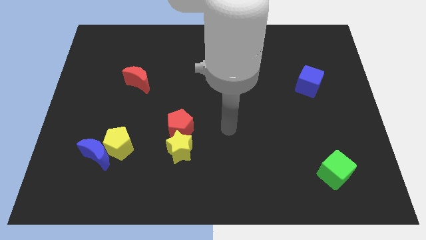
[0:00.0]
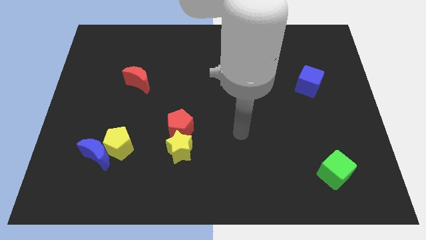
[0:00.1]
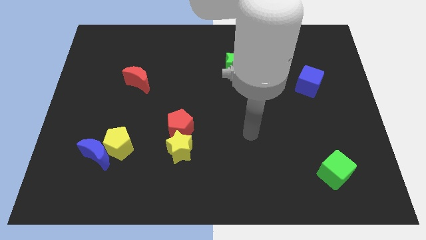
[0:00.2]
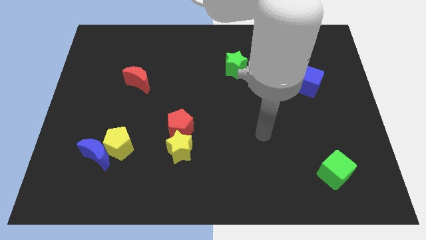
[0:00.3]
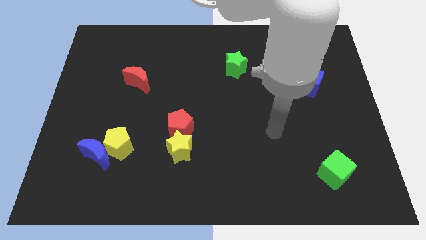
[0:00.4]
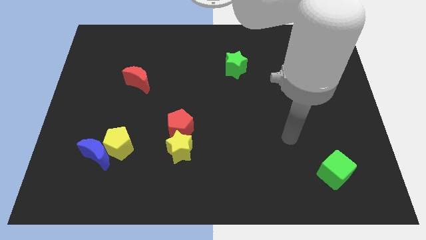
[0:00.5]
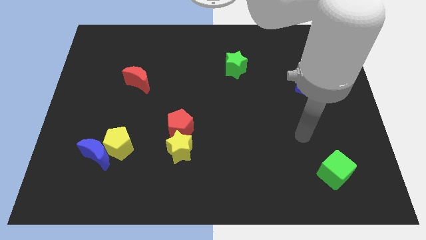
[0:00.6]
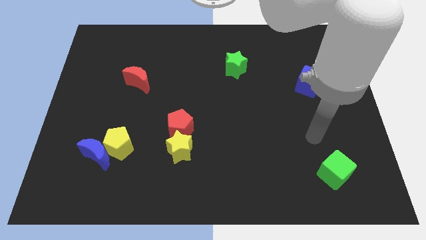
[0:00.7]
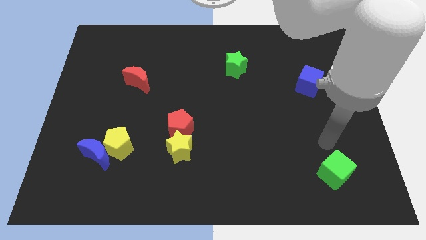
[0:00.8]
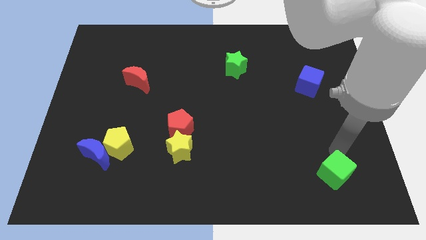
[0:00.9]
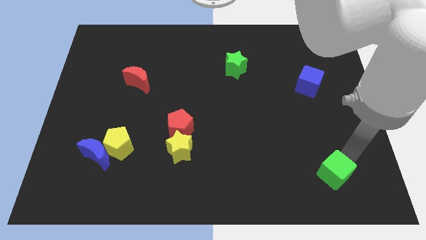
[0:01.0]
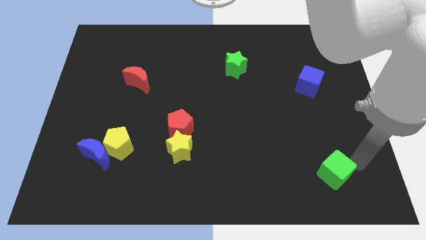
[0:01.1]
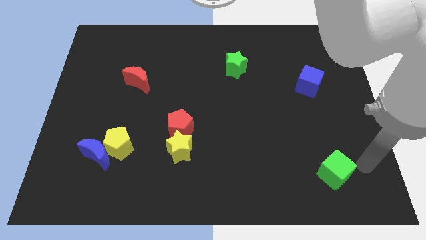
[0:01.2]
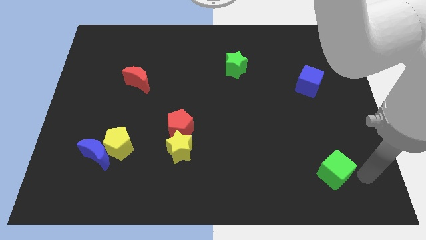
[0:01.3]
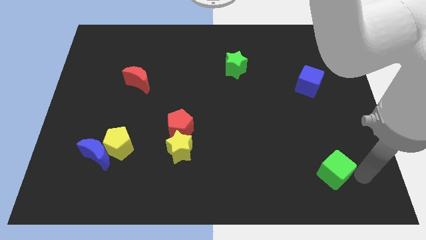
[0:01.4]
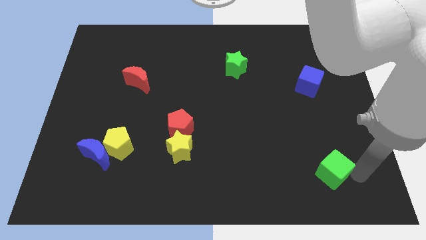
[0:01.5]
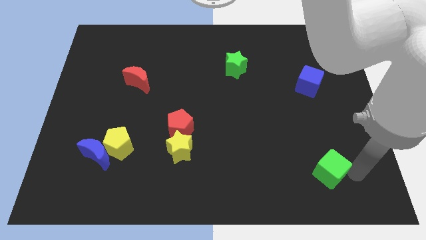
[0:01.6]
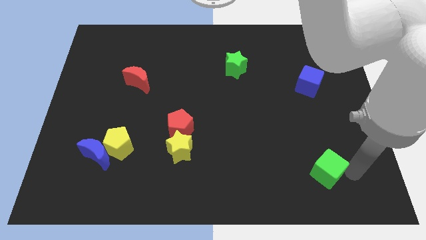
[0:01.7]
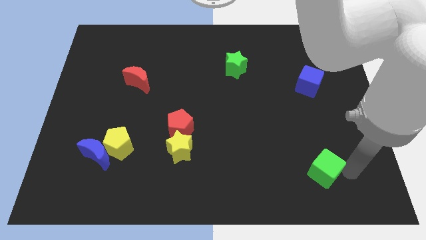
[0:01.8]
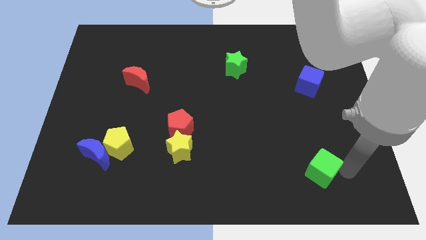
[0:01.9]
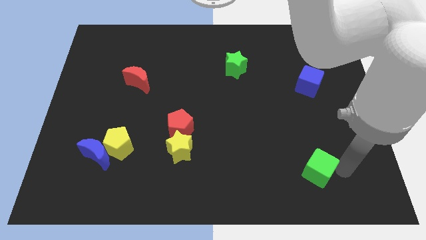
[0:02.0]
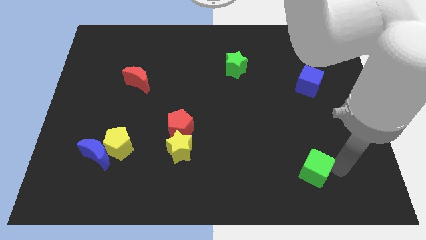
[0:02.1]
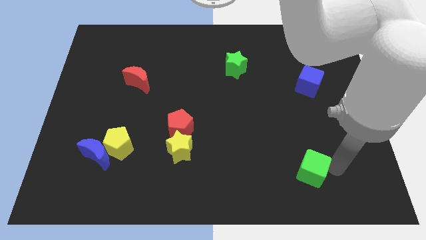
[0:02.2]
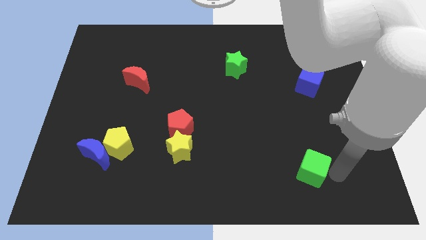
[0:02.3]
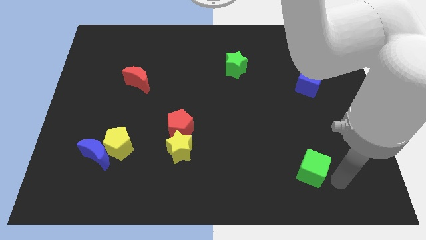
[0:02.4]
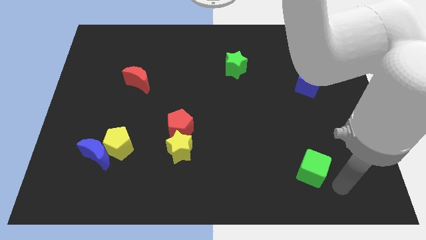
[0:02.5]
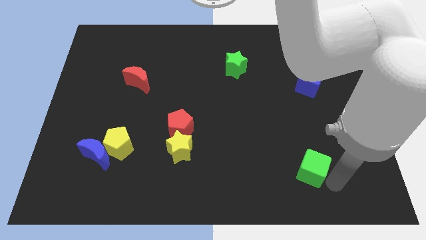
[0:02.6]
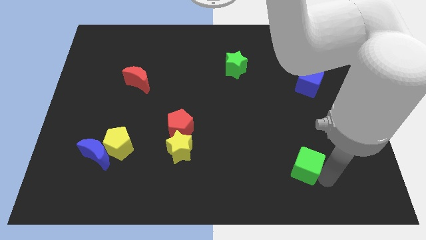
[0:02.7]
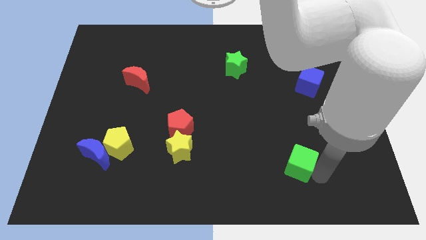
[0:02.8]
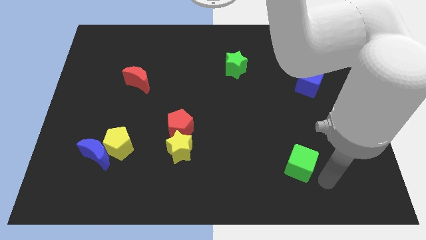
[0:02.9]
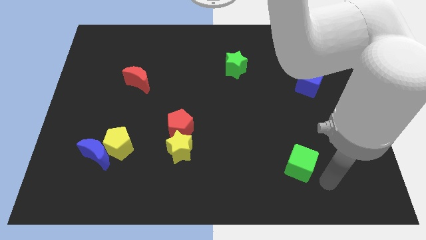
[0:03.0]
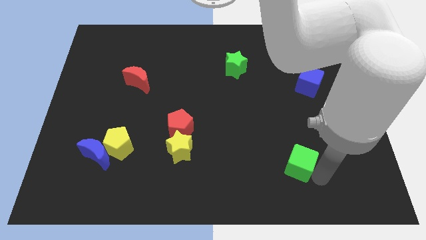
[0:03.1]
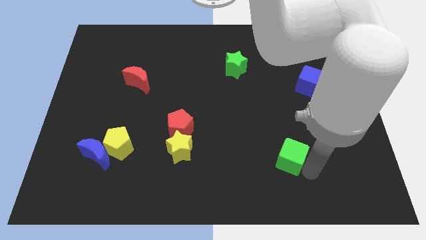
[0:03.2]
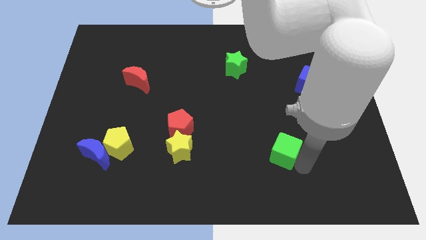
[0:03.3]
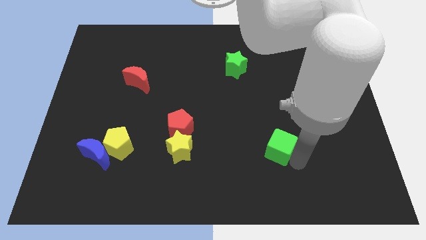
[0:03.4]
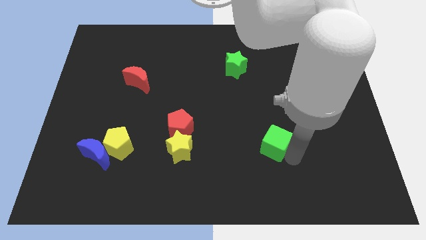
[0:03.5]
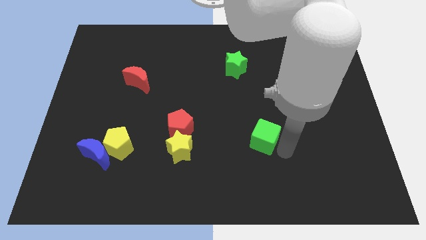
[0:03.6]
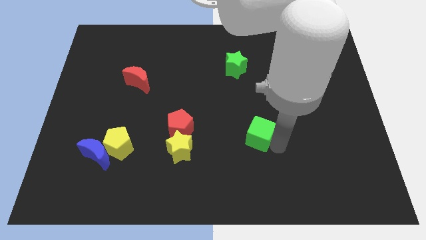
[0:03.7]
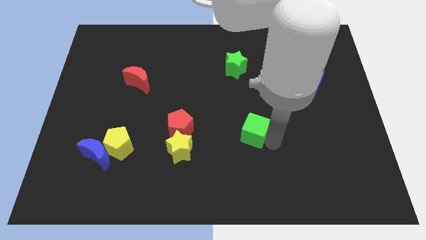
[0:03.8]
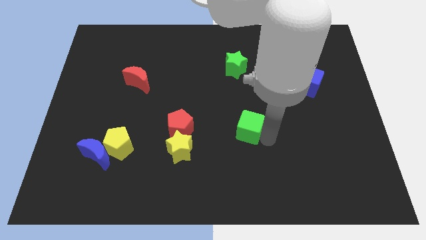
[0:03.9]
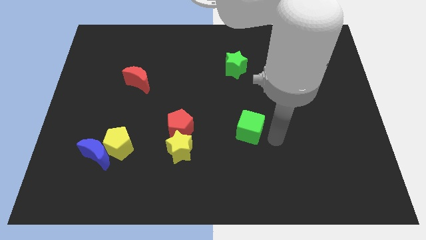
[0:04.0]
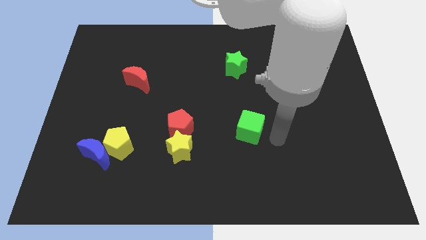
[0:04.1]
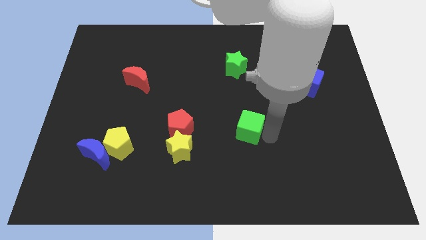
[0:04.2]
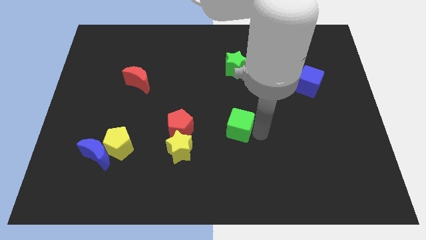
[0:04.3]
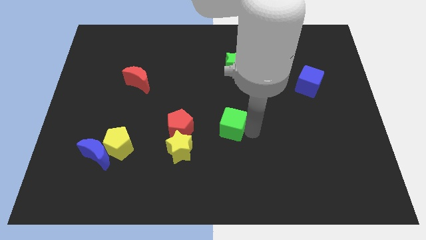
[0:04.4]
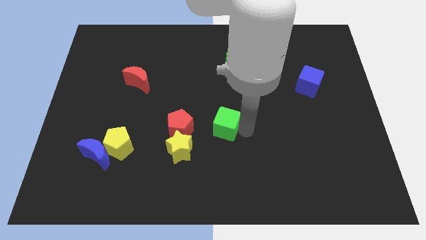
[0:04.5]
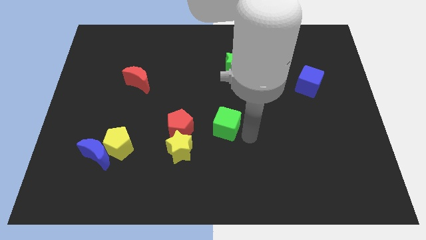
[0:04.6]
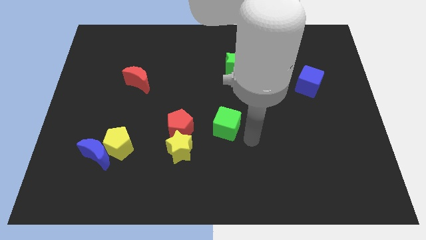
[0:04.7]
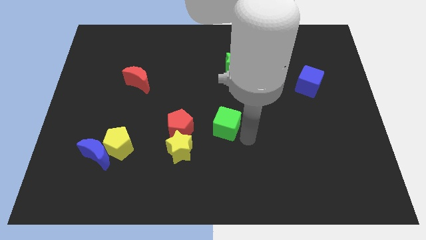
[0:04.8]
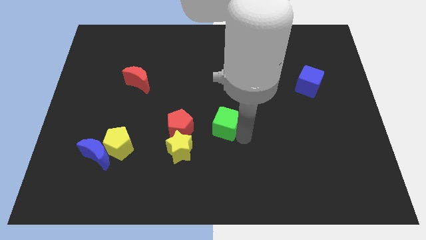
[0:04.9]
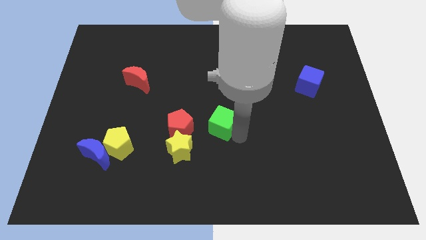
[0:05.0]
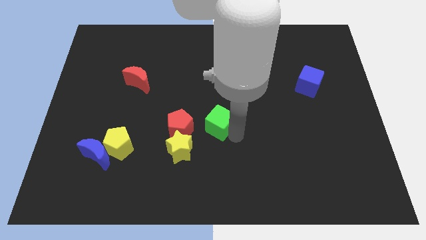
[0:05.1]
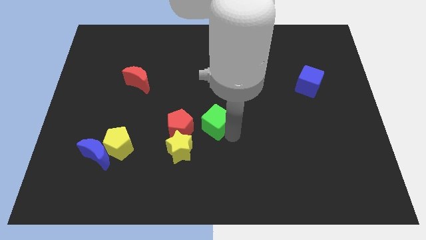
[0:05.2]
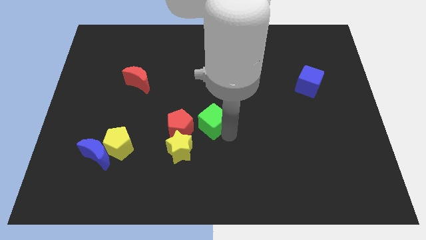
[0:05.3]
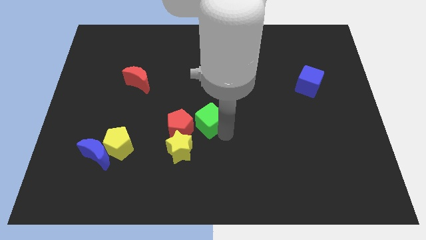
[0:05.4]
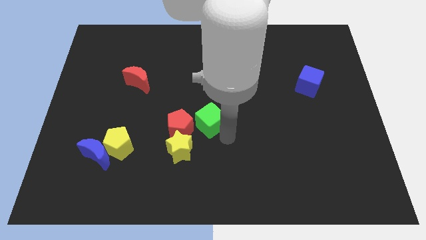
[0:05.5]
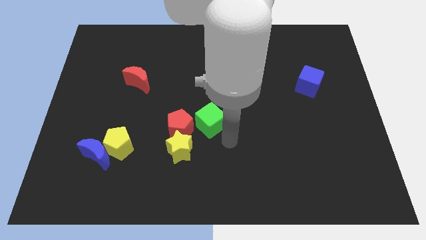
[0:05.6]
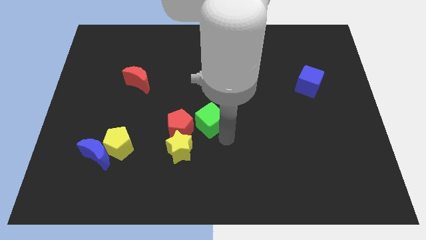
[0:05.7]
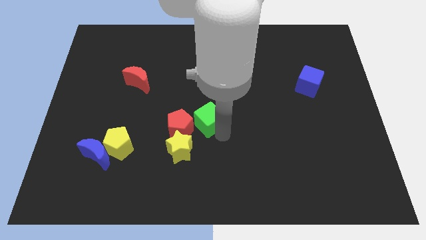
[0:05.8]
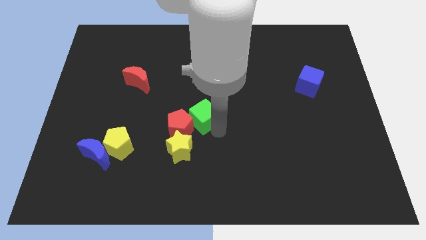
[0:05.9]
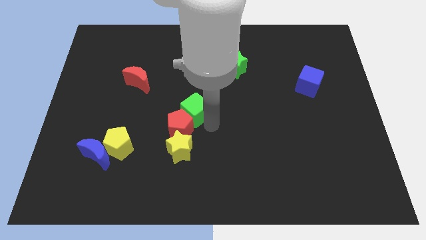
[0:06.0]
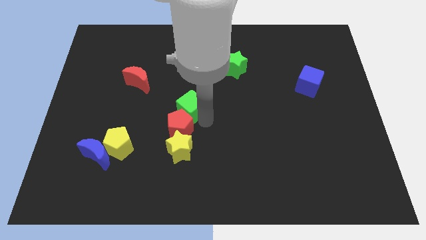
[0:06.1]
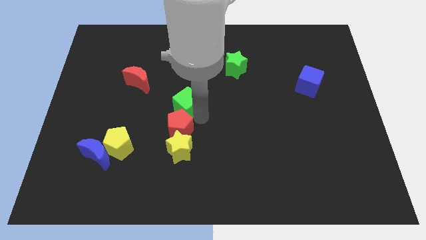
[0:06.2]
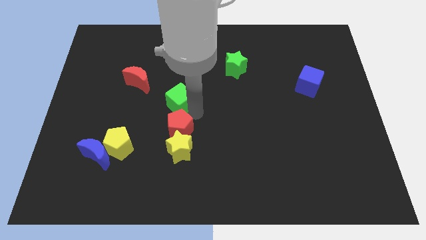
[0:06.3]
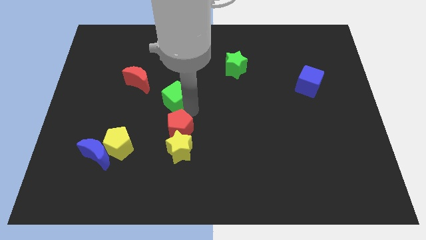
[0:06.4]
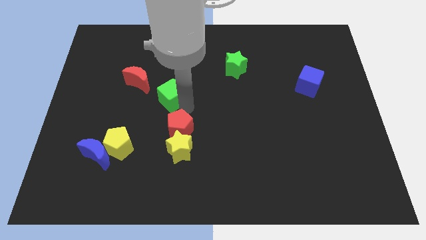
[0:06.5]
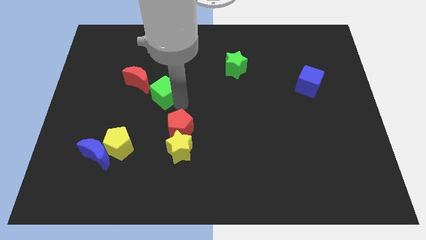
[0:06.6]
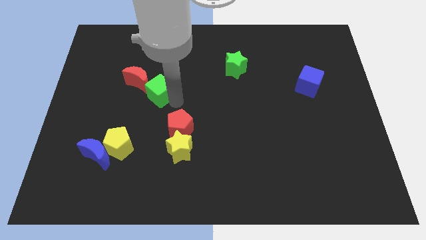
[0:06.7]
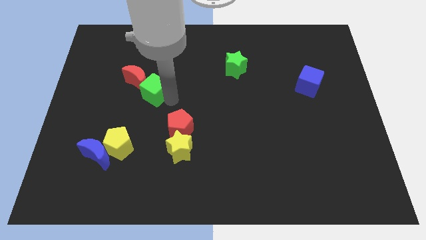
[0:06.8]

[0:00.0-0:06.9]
push the green cube close to the red moon

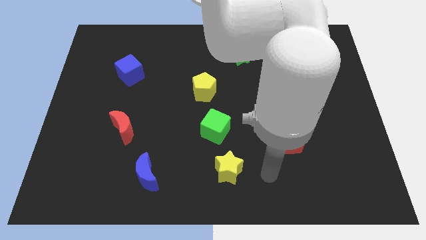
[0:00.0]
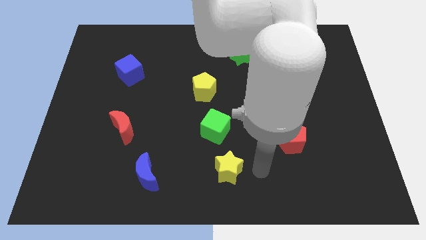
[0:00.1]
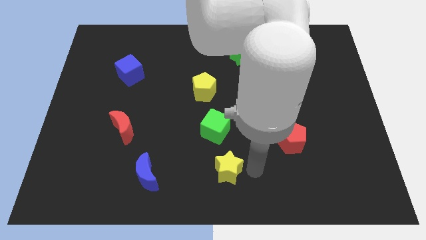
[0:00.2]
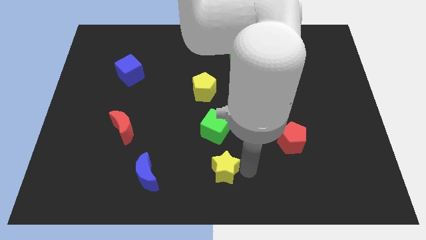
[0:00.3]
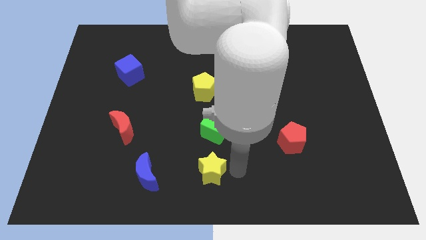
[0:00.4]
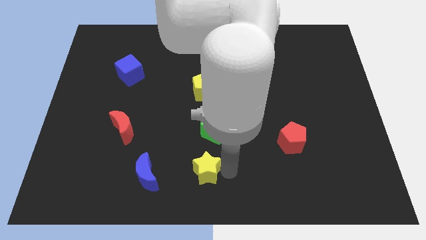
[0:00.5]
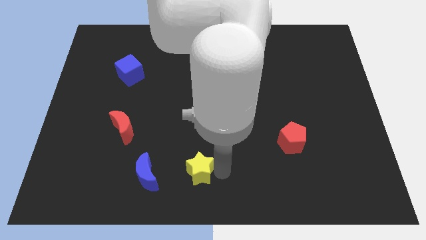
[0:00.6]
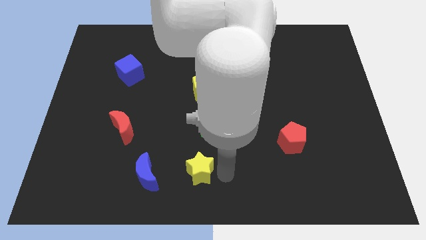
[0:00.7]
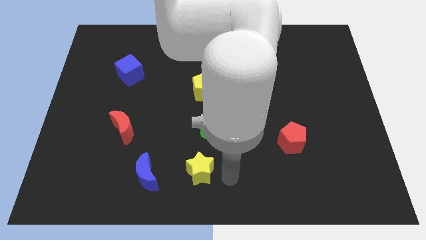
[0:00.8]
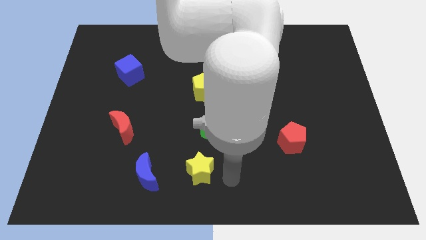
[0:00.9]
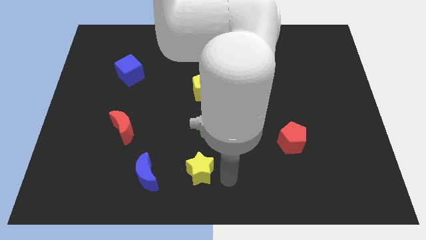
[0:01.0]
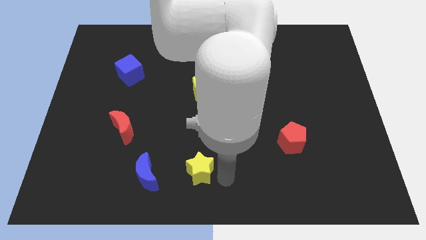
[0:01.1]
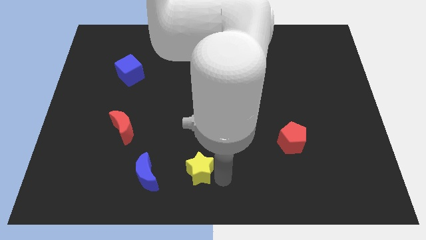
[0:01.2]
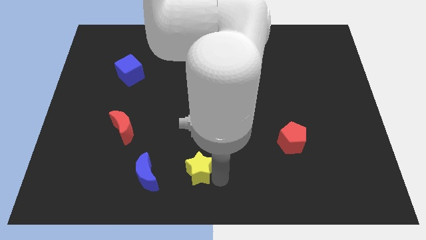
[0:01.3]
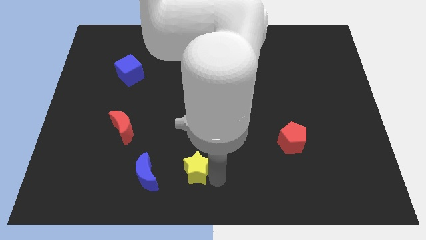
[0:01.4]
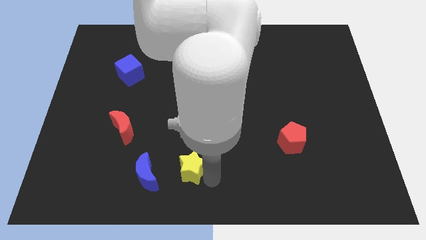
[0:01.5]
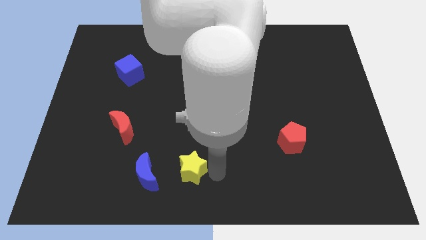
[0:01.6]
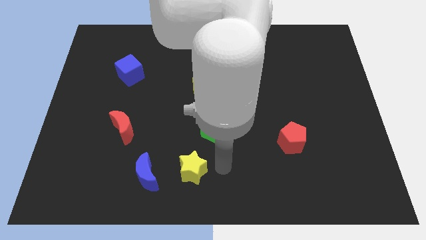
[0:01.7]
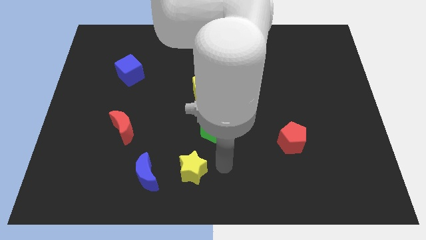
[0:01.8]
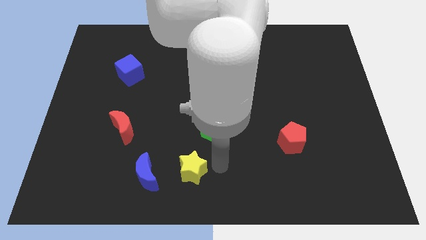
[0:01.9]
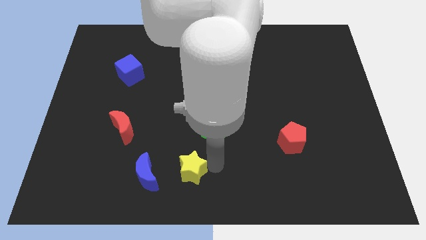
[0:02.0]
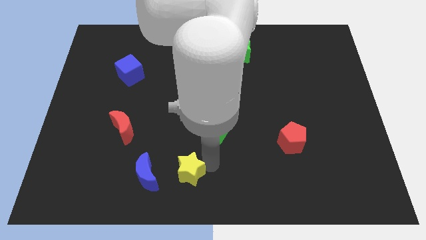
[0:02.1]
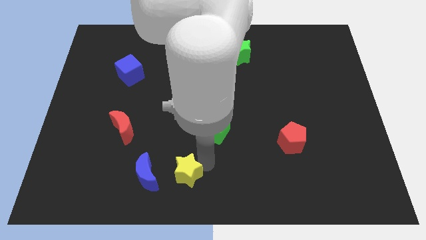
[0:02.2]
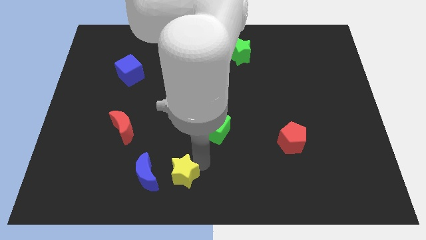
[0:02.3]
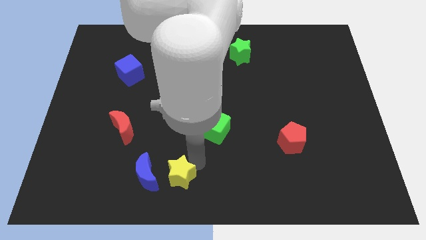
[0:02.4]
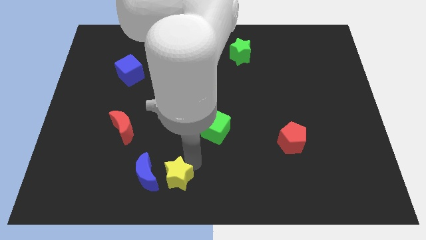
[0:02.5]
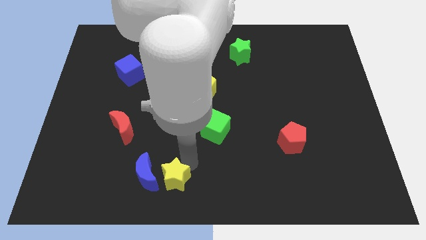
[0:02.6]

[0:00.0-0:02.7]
push the yellow star to the blue moon
